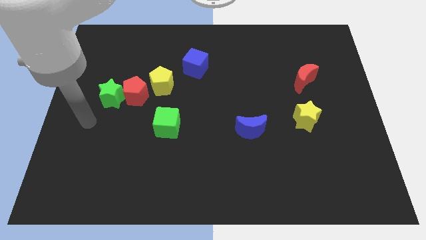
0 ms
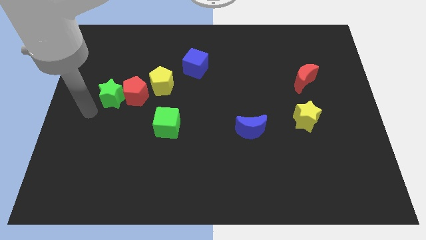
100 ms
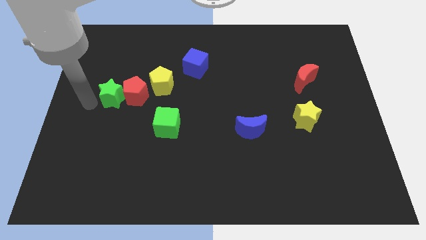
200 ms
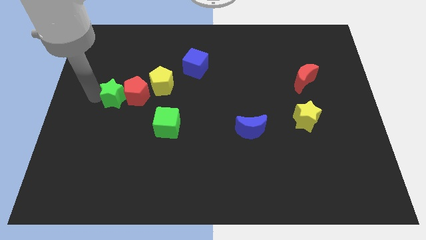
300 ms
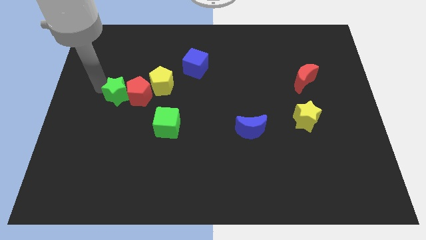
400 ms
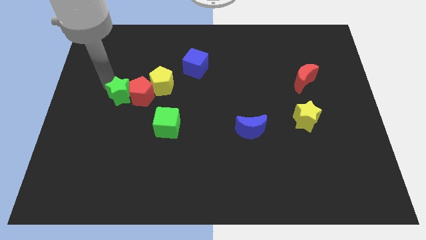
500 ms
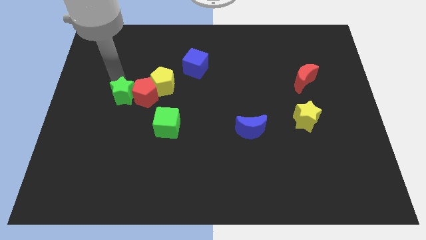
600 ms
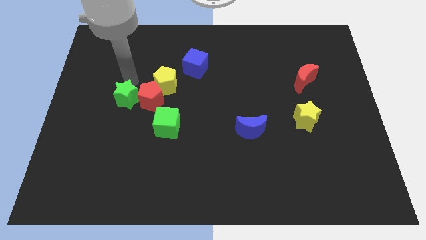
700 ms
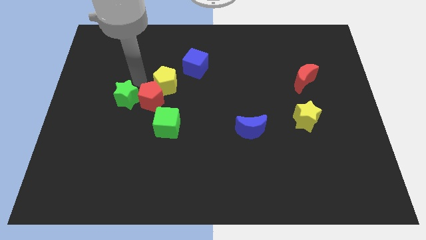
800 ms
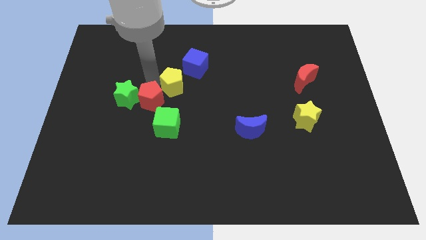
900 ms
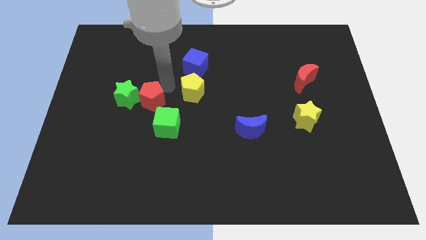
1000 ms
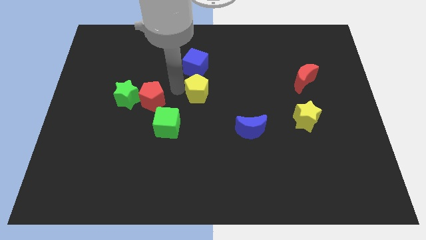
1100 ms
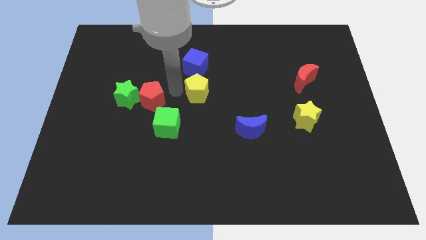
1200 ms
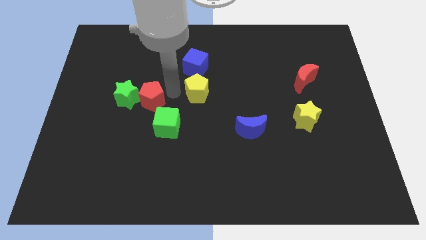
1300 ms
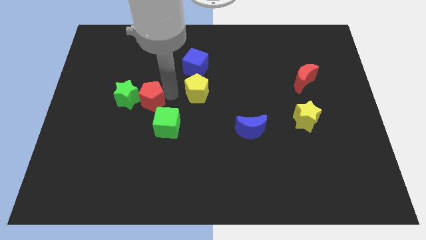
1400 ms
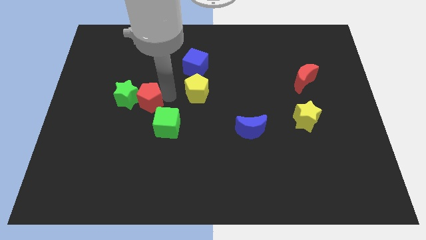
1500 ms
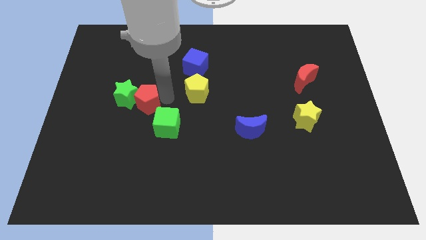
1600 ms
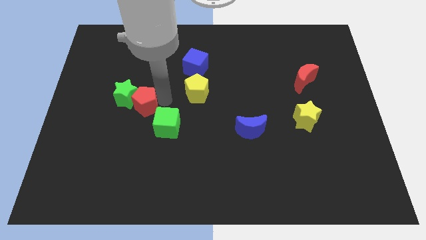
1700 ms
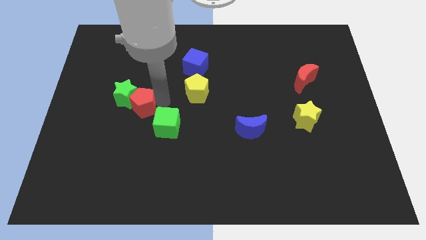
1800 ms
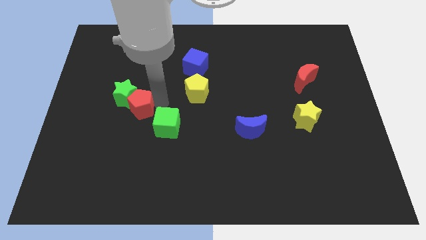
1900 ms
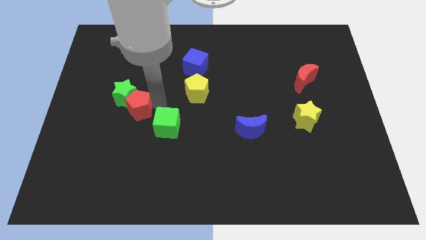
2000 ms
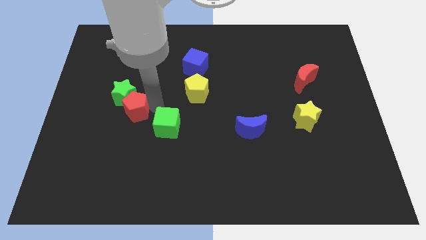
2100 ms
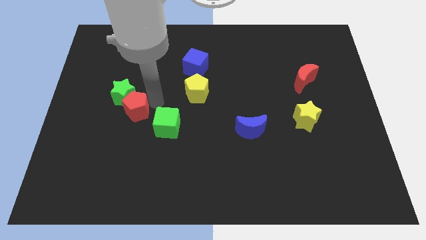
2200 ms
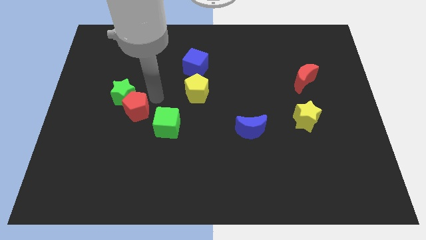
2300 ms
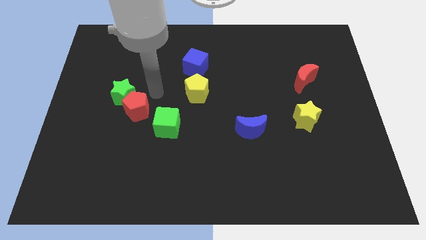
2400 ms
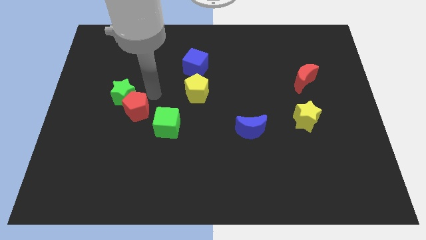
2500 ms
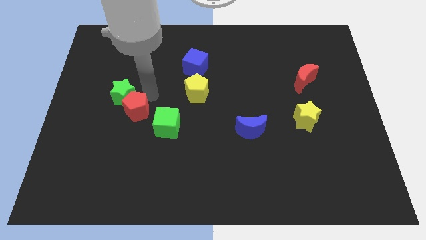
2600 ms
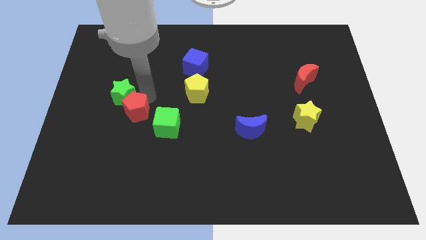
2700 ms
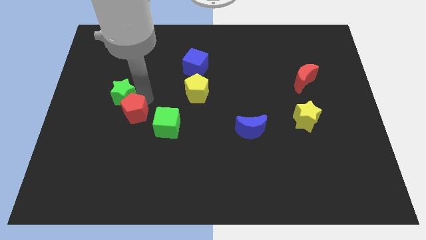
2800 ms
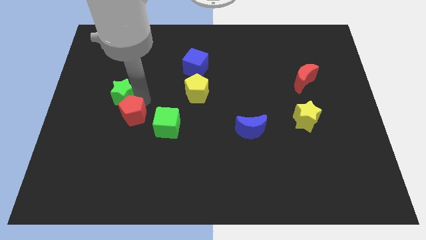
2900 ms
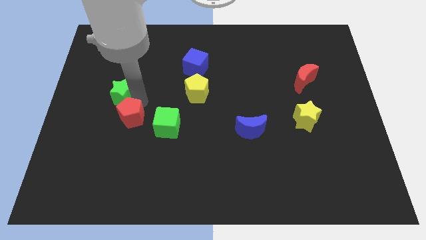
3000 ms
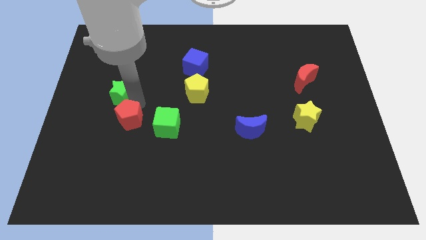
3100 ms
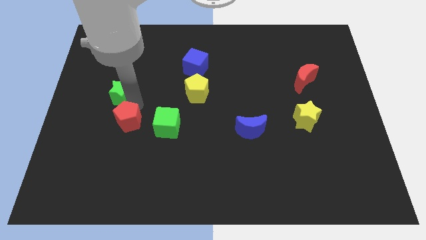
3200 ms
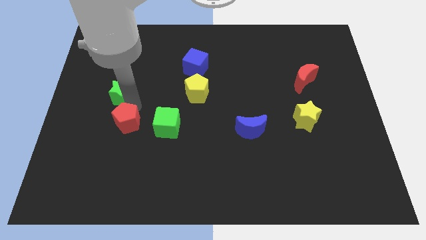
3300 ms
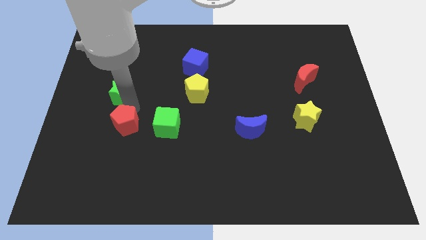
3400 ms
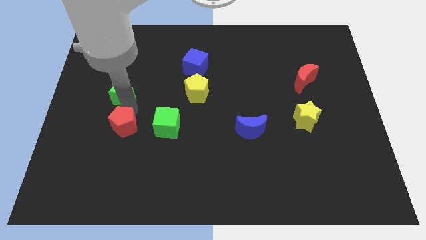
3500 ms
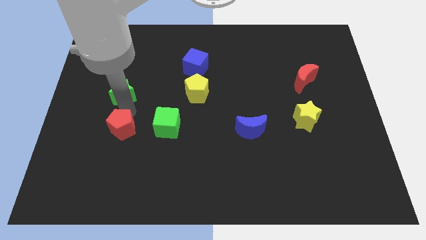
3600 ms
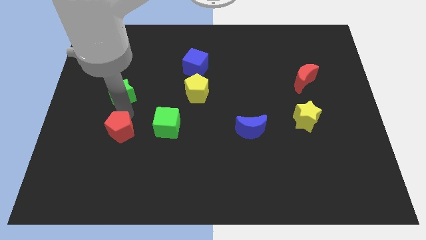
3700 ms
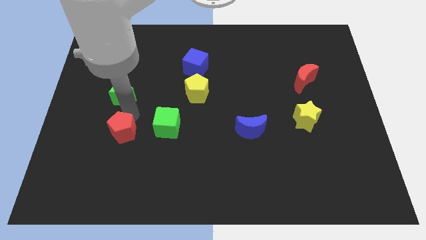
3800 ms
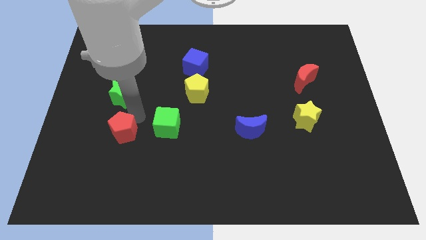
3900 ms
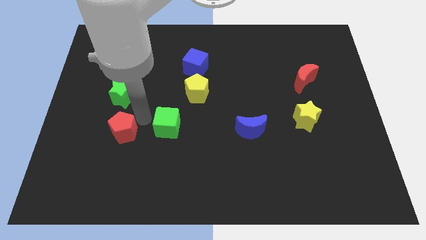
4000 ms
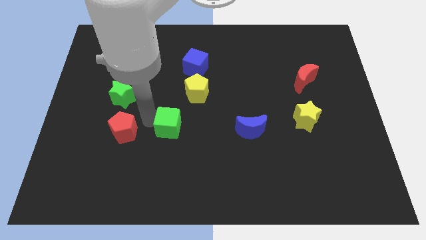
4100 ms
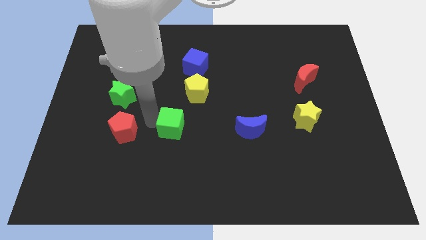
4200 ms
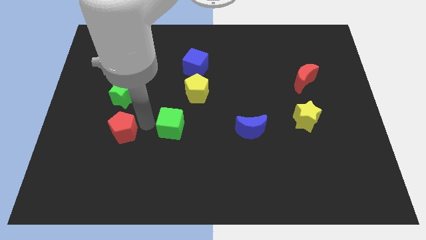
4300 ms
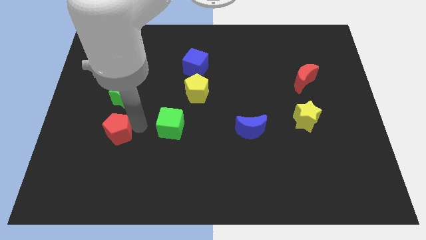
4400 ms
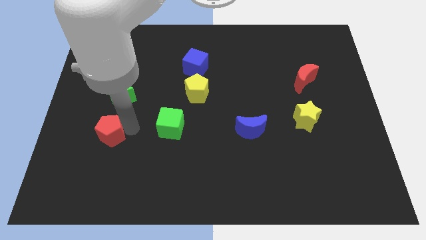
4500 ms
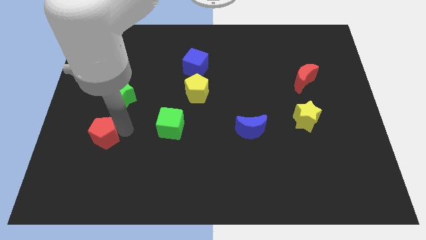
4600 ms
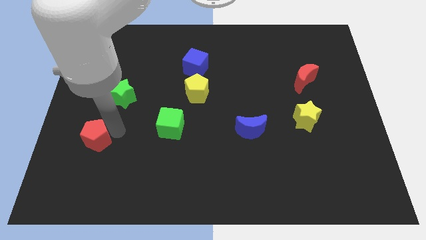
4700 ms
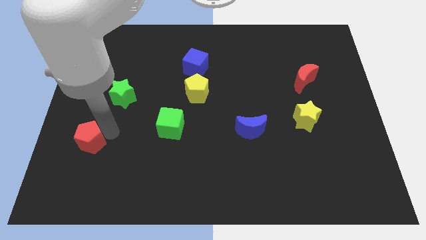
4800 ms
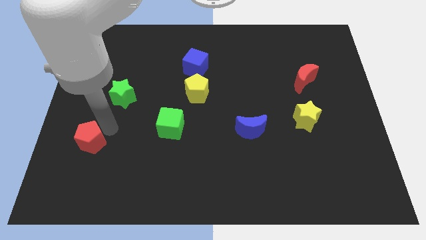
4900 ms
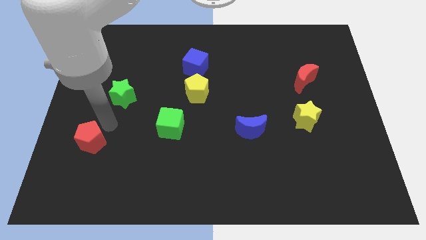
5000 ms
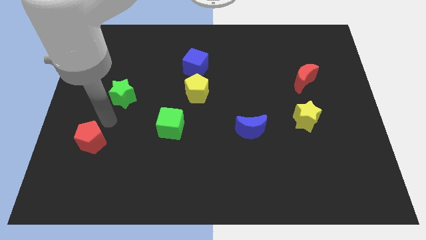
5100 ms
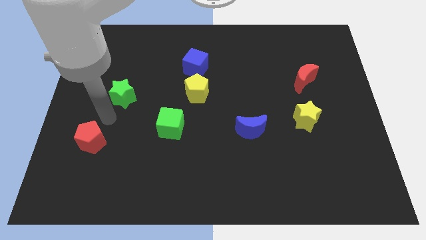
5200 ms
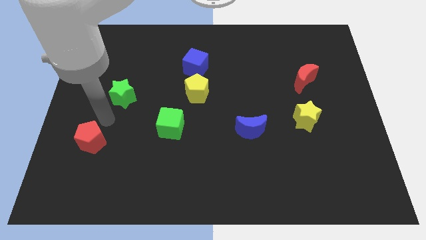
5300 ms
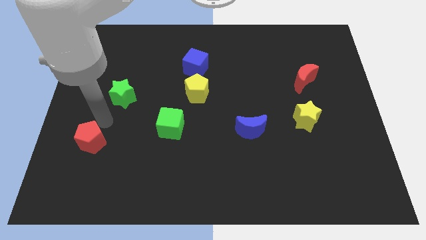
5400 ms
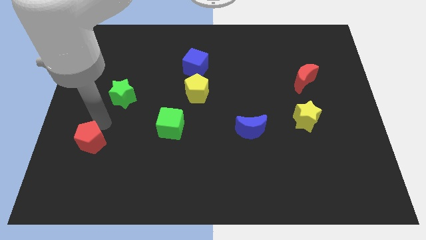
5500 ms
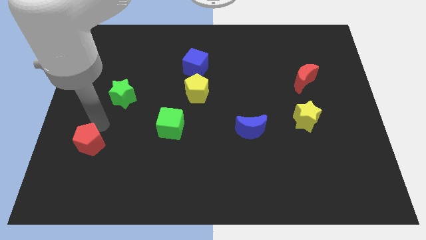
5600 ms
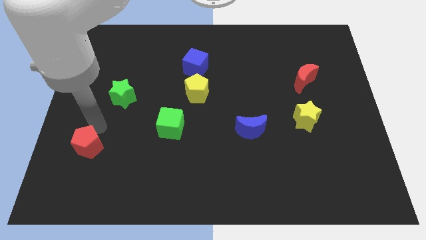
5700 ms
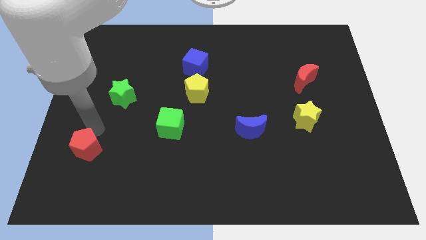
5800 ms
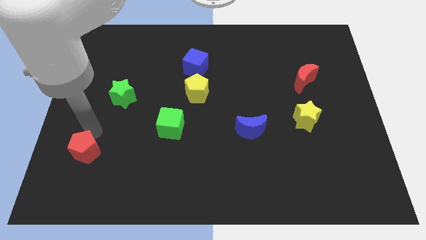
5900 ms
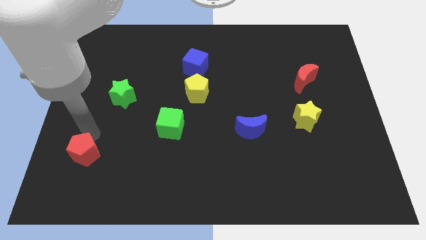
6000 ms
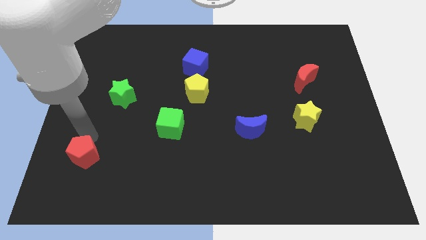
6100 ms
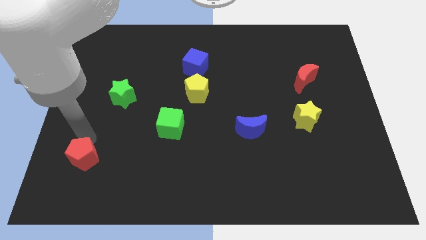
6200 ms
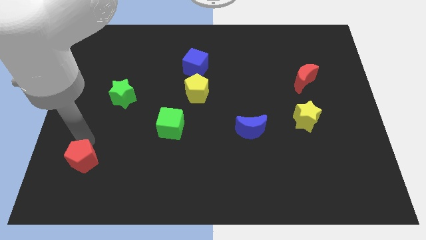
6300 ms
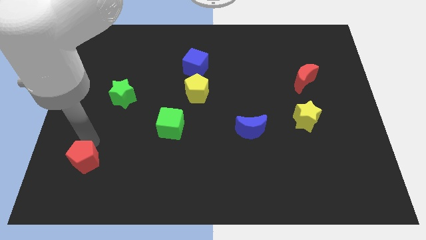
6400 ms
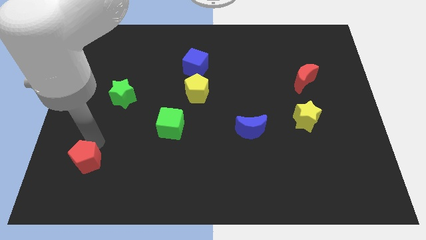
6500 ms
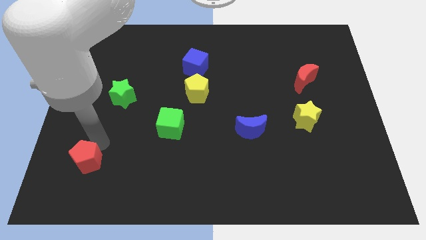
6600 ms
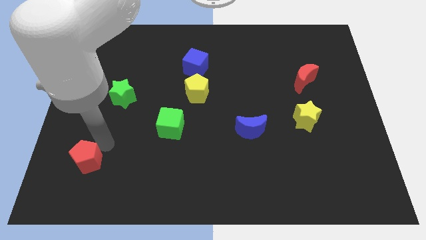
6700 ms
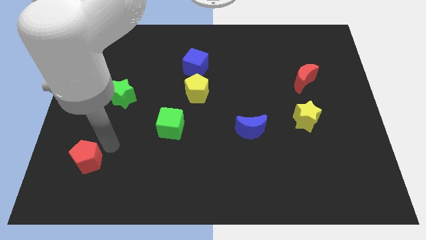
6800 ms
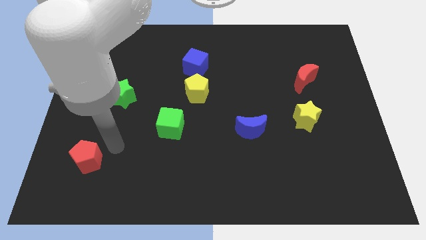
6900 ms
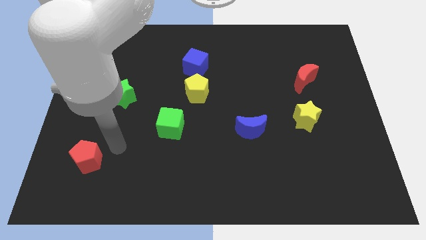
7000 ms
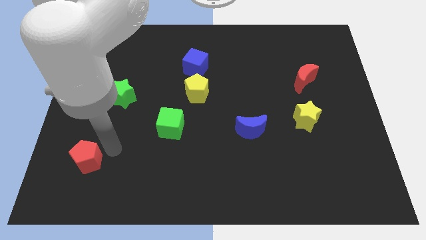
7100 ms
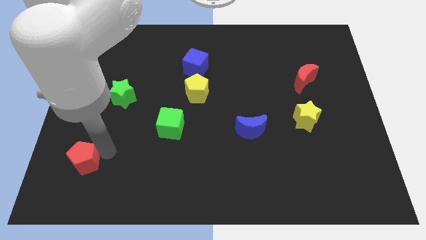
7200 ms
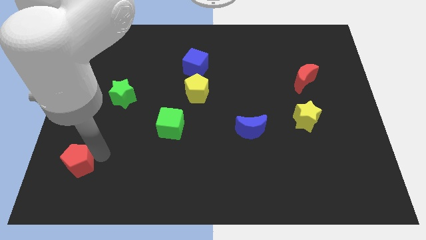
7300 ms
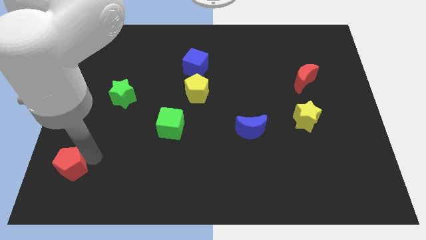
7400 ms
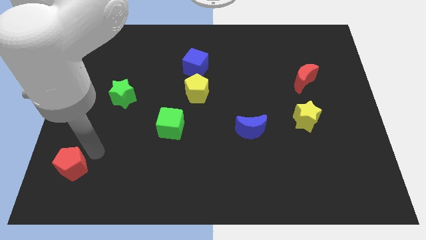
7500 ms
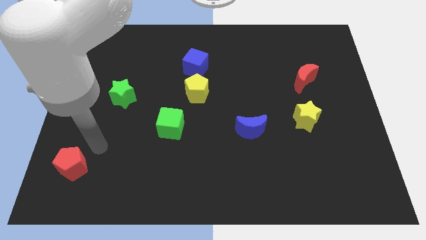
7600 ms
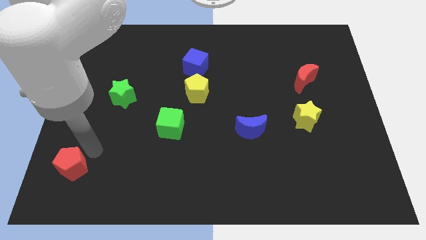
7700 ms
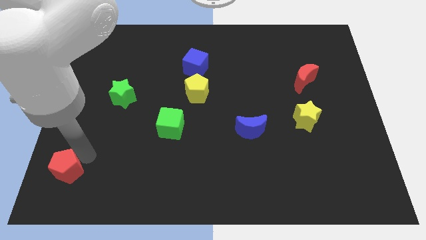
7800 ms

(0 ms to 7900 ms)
slide the red pentagon to the bottom left
